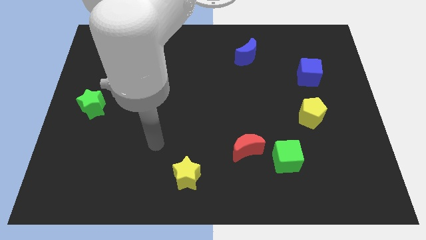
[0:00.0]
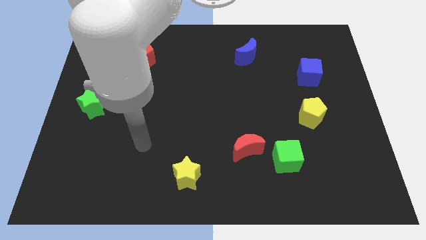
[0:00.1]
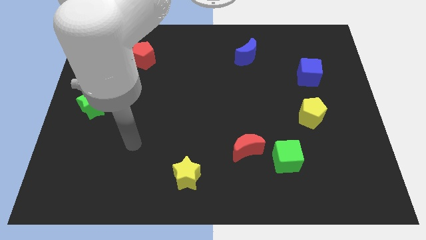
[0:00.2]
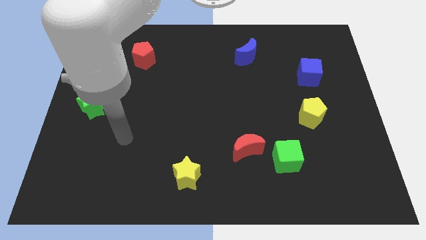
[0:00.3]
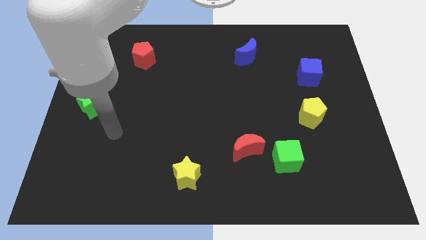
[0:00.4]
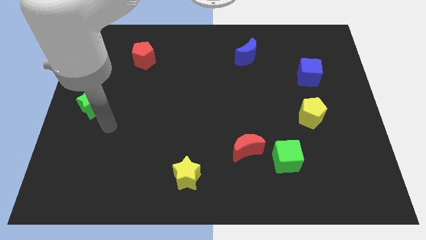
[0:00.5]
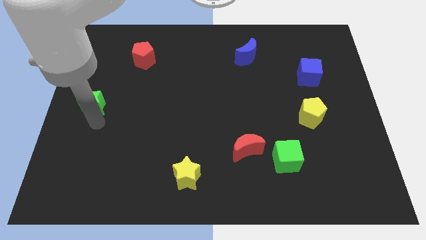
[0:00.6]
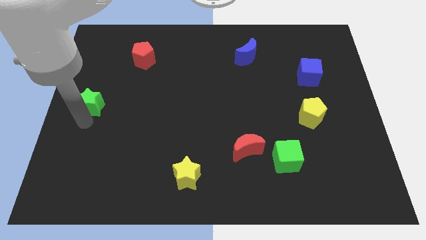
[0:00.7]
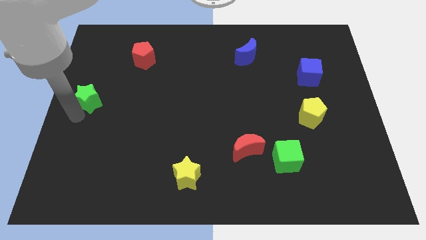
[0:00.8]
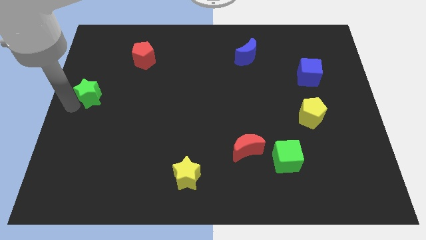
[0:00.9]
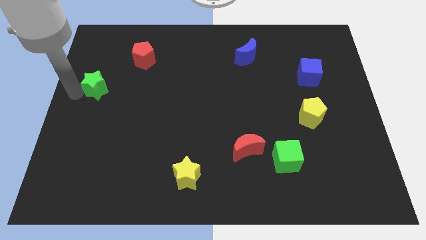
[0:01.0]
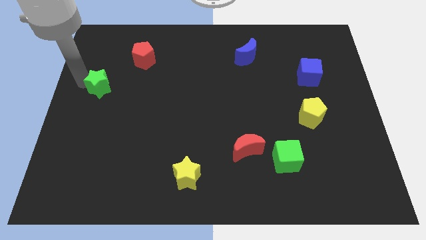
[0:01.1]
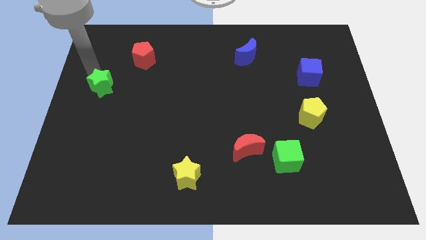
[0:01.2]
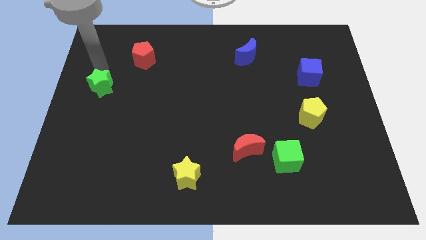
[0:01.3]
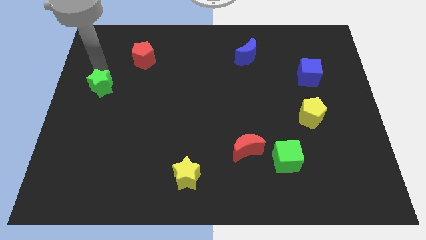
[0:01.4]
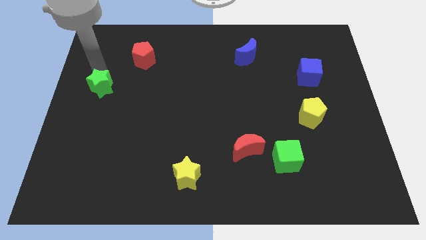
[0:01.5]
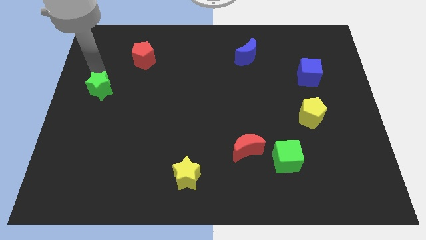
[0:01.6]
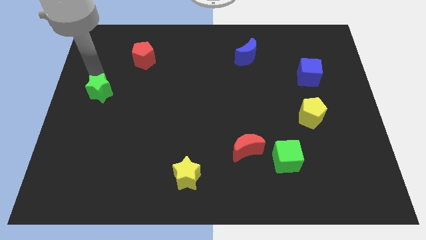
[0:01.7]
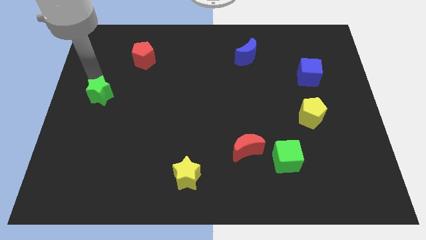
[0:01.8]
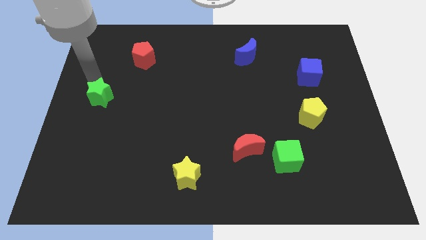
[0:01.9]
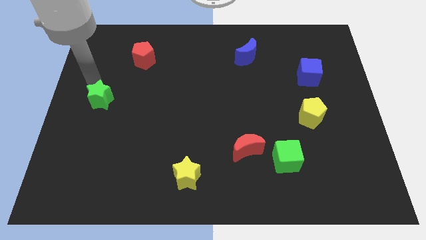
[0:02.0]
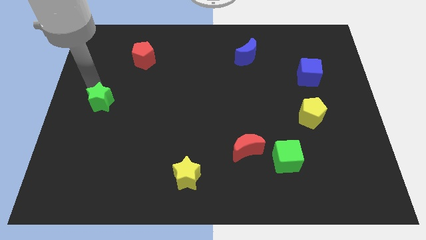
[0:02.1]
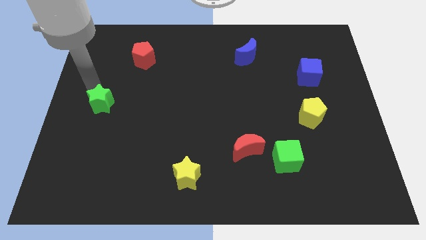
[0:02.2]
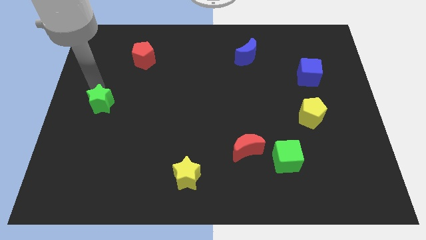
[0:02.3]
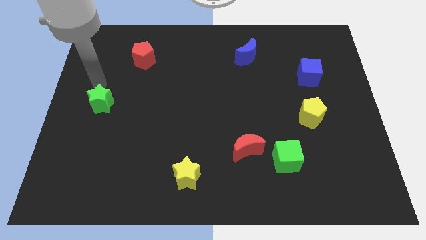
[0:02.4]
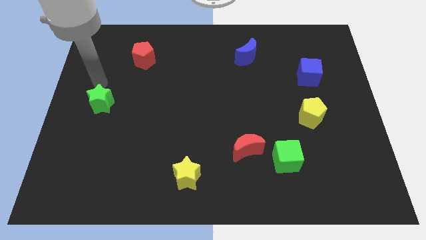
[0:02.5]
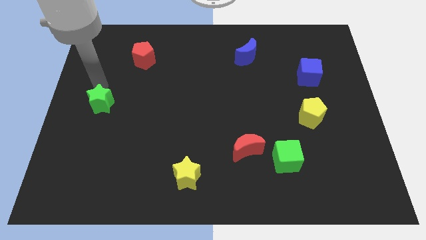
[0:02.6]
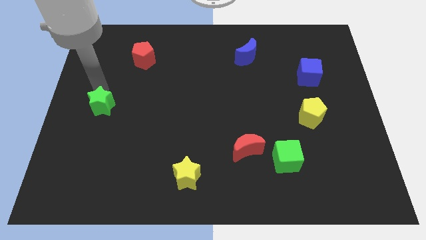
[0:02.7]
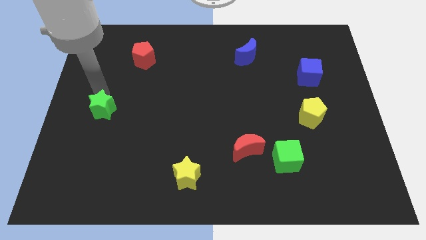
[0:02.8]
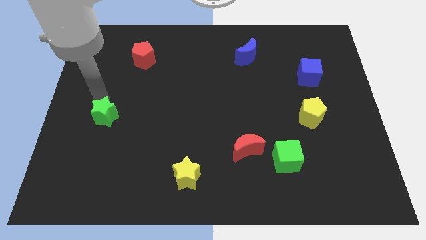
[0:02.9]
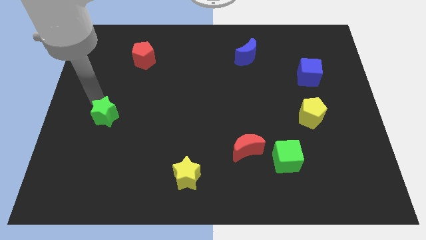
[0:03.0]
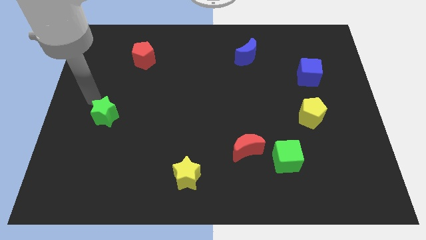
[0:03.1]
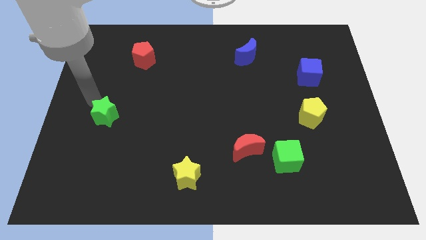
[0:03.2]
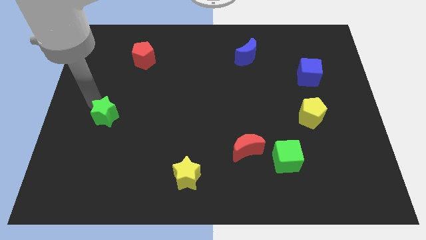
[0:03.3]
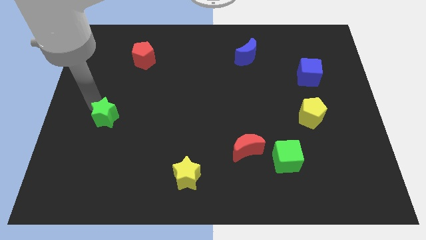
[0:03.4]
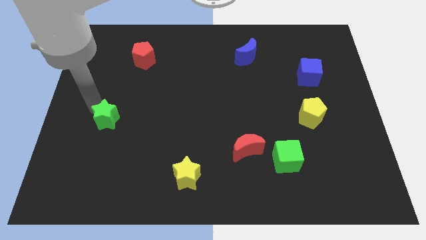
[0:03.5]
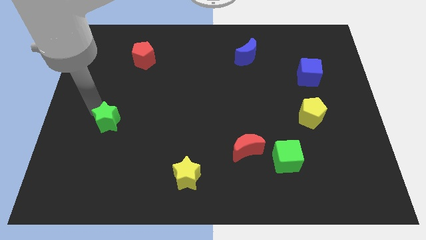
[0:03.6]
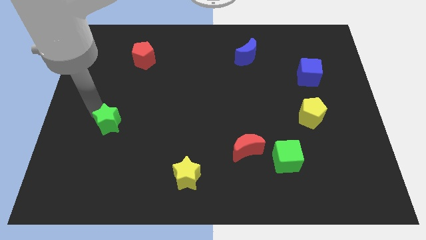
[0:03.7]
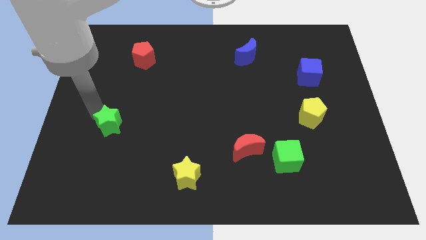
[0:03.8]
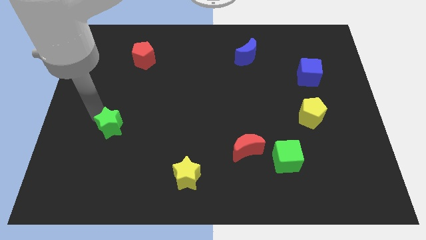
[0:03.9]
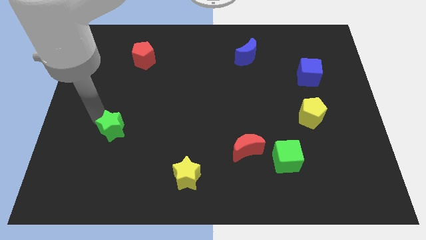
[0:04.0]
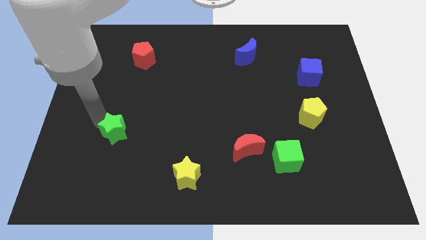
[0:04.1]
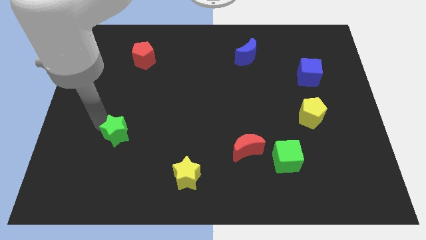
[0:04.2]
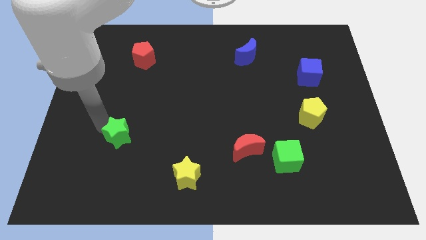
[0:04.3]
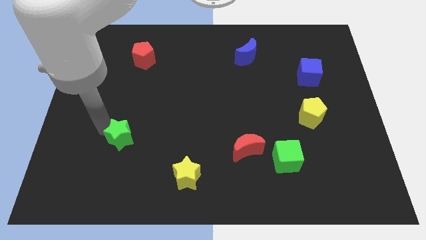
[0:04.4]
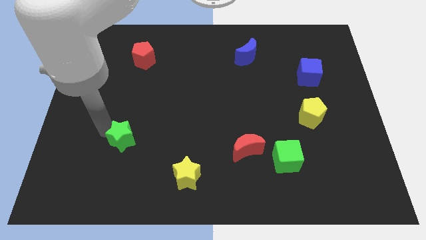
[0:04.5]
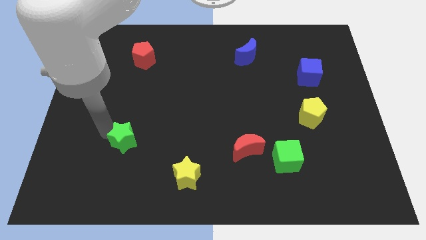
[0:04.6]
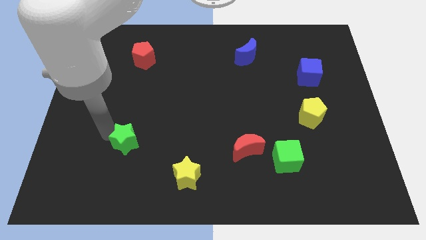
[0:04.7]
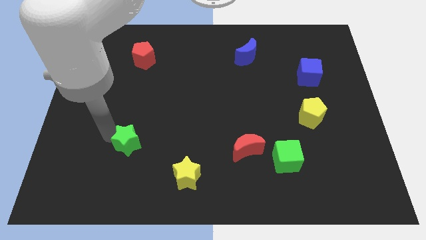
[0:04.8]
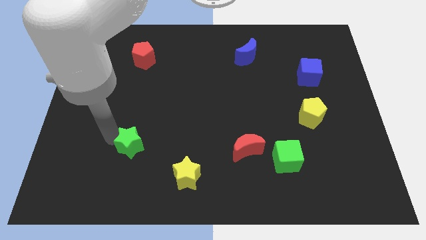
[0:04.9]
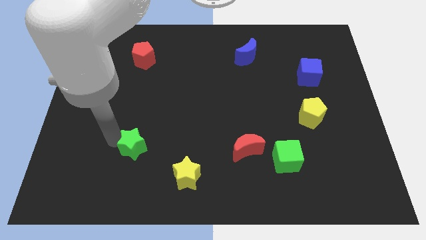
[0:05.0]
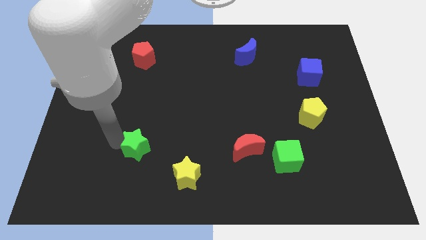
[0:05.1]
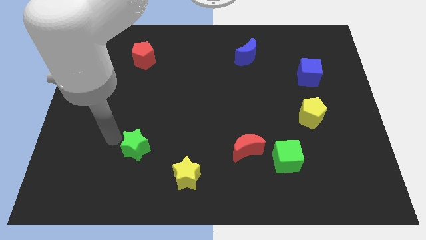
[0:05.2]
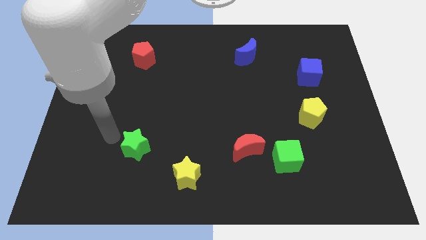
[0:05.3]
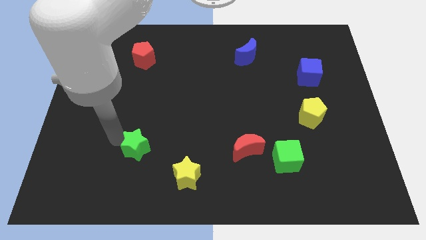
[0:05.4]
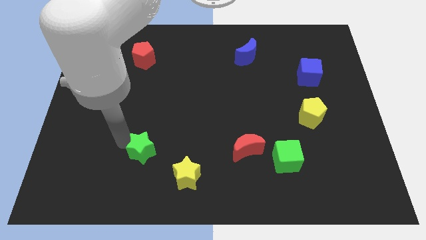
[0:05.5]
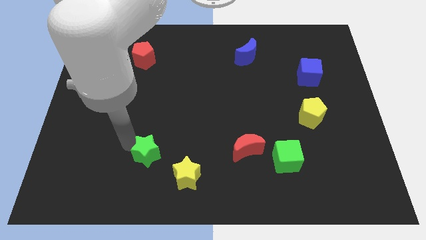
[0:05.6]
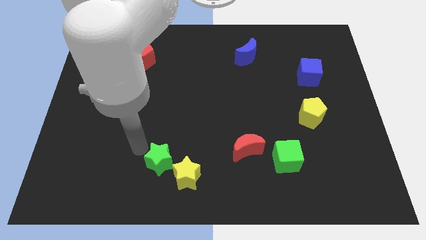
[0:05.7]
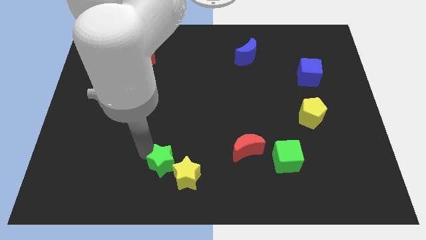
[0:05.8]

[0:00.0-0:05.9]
put the green star next to the yellow star

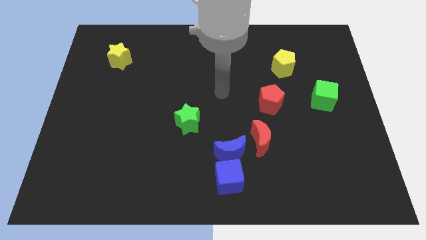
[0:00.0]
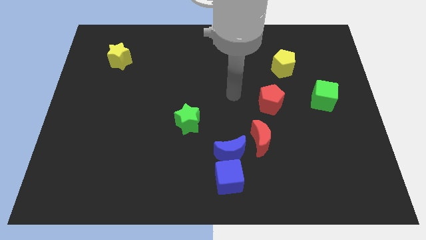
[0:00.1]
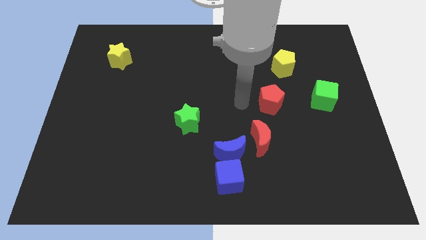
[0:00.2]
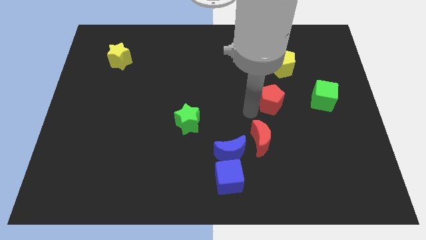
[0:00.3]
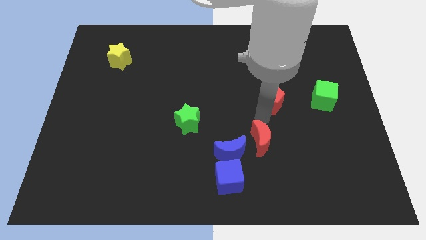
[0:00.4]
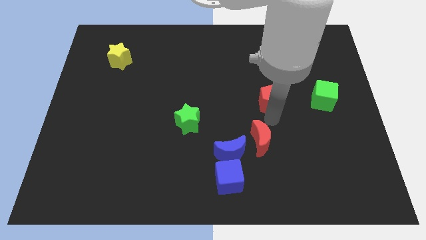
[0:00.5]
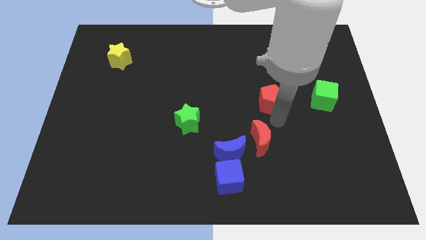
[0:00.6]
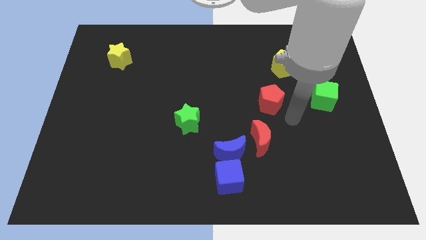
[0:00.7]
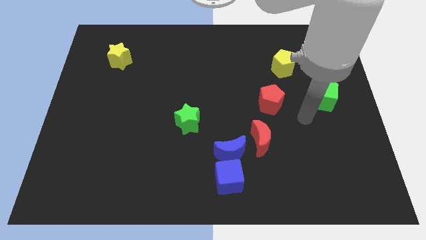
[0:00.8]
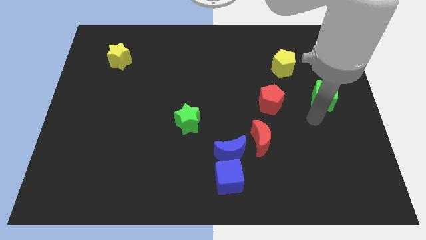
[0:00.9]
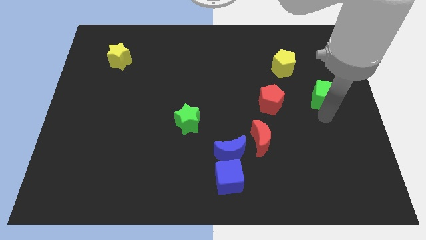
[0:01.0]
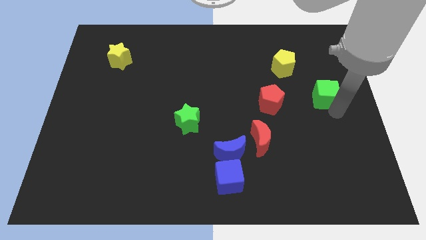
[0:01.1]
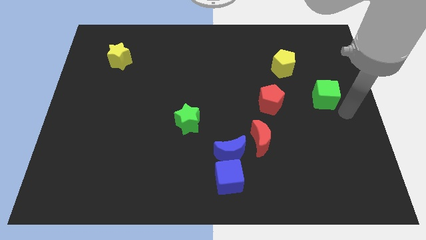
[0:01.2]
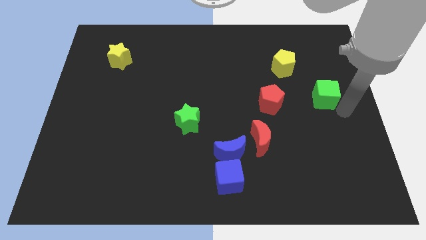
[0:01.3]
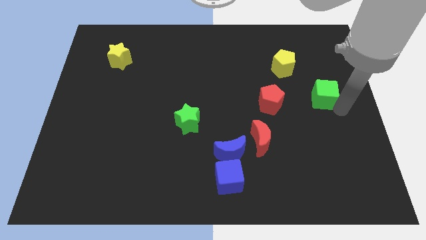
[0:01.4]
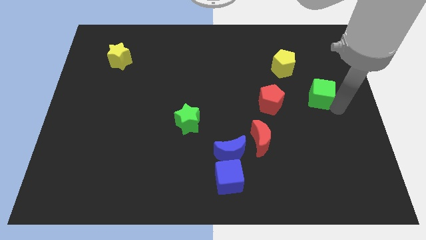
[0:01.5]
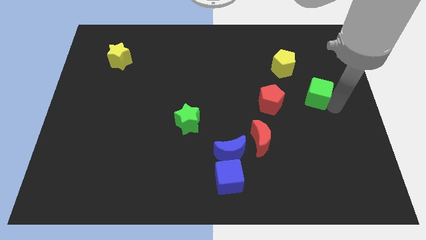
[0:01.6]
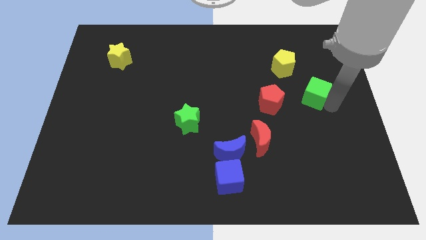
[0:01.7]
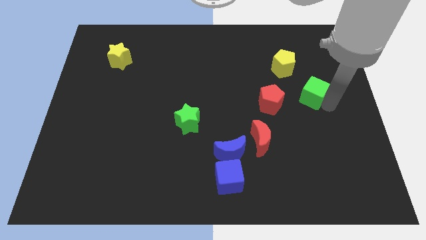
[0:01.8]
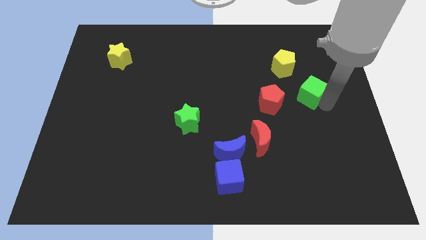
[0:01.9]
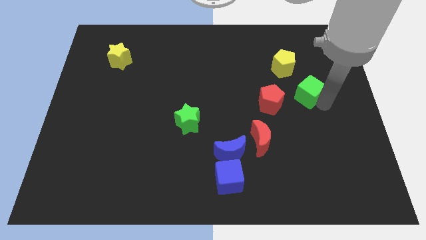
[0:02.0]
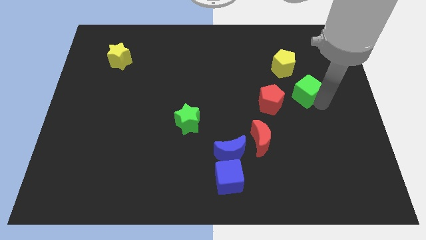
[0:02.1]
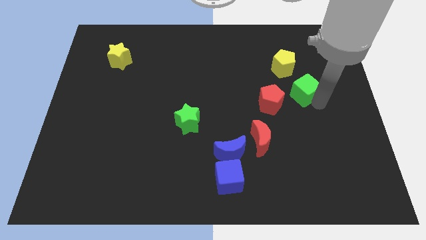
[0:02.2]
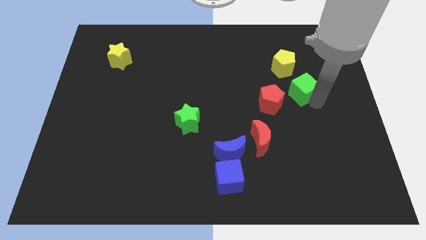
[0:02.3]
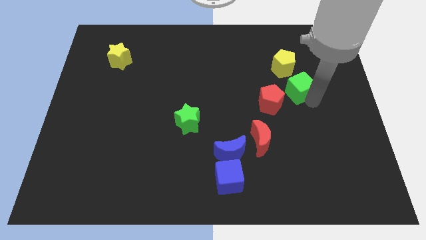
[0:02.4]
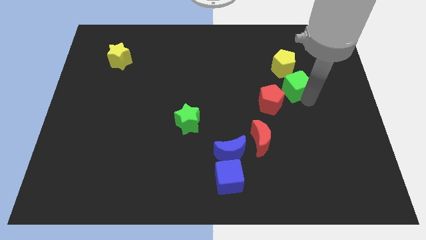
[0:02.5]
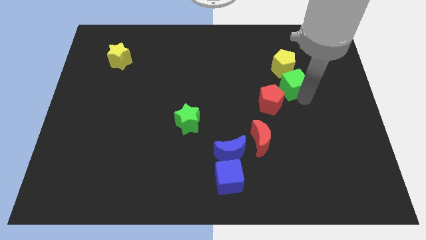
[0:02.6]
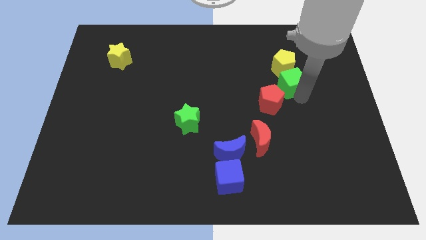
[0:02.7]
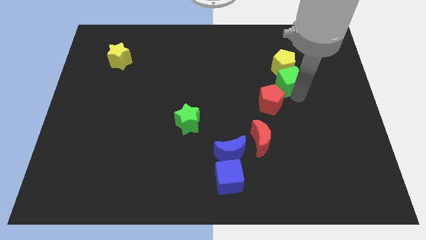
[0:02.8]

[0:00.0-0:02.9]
move the green cube close to the yellow pentagon
